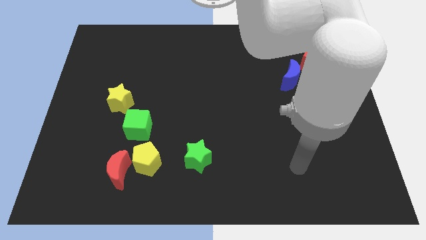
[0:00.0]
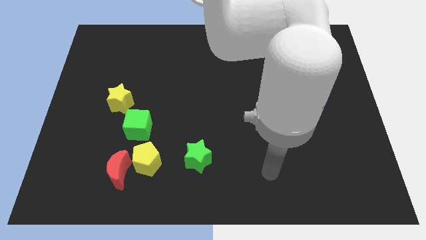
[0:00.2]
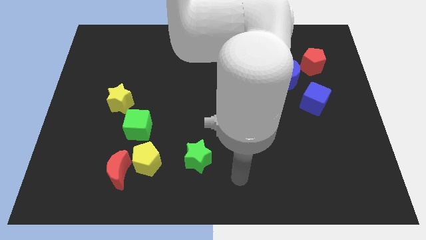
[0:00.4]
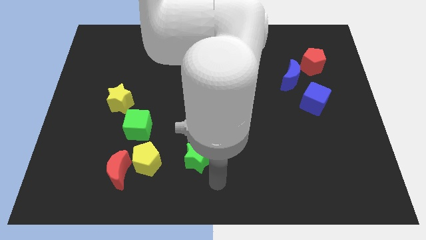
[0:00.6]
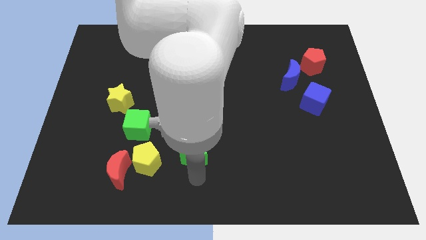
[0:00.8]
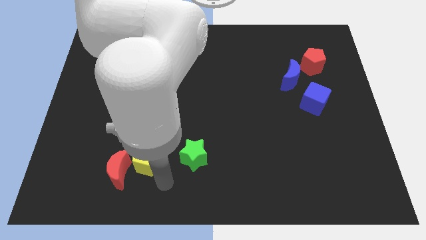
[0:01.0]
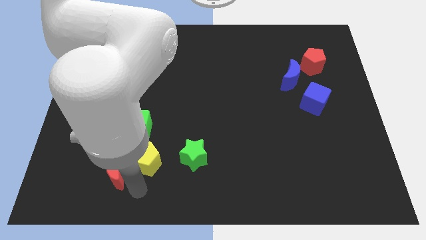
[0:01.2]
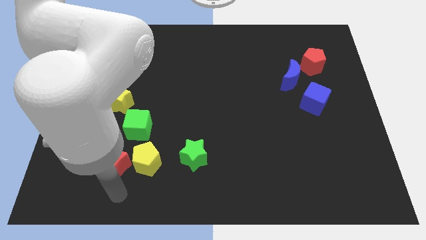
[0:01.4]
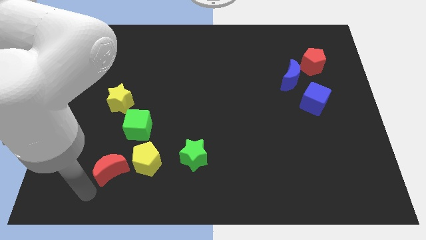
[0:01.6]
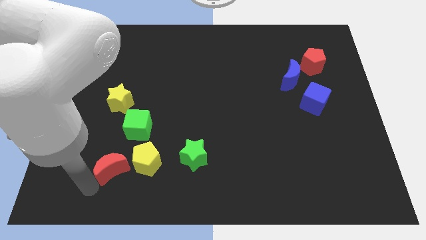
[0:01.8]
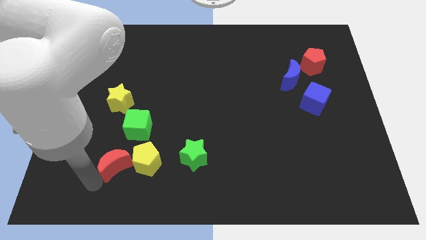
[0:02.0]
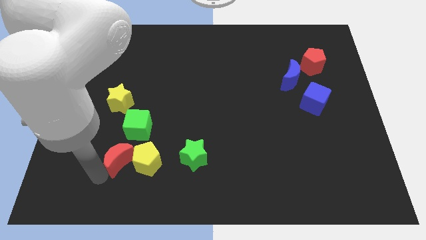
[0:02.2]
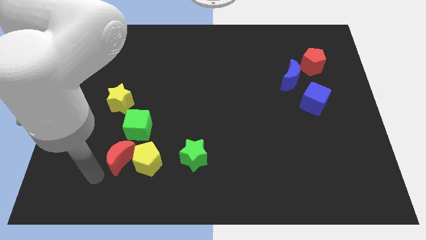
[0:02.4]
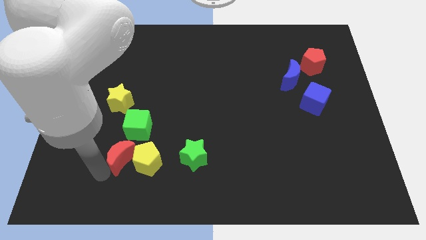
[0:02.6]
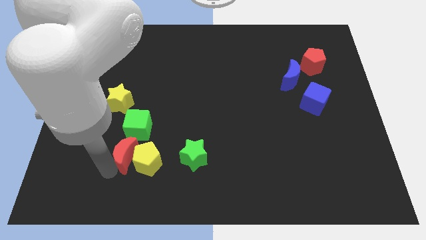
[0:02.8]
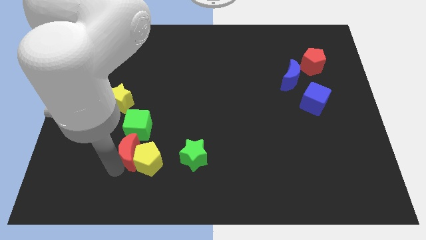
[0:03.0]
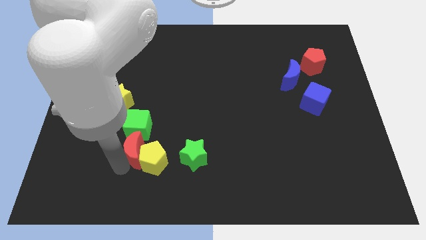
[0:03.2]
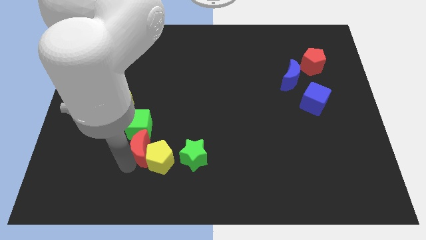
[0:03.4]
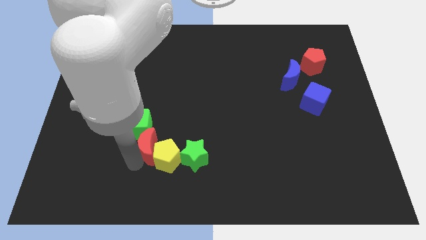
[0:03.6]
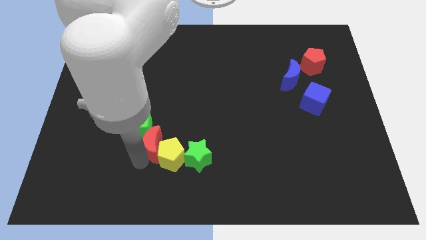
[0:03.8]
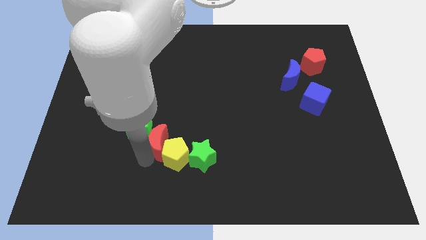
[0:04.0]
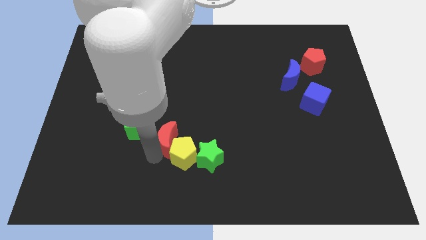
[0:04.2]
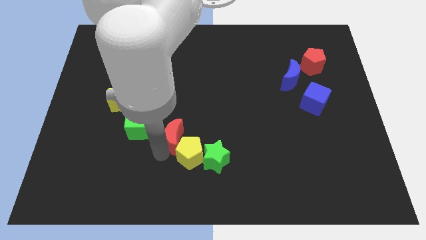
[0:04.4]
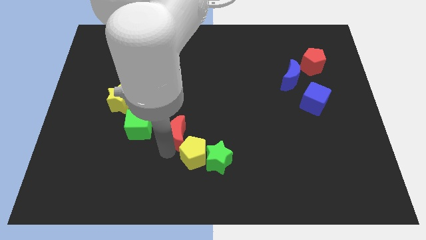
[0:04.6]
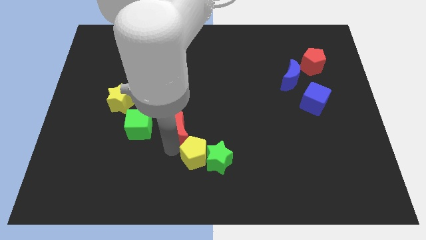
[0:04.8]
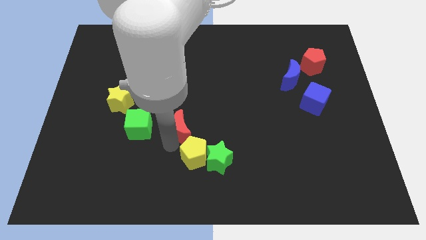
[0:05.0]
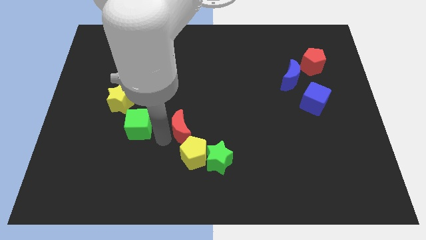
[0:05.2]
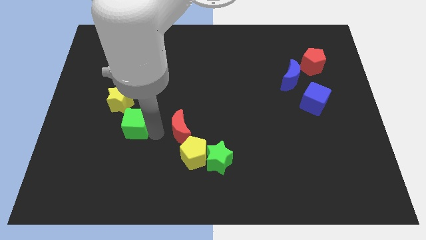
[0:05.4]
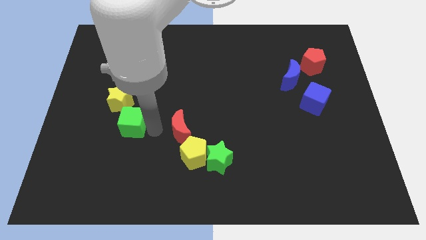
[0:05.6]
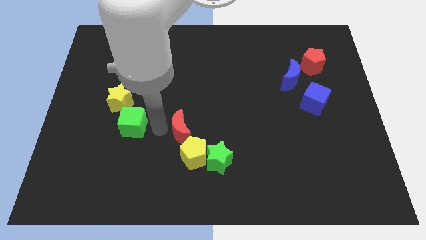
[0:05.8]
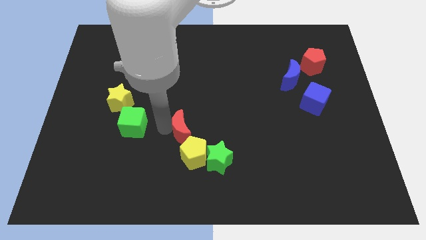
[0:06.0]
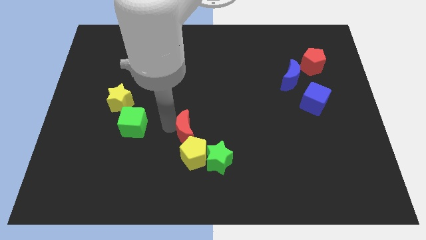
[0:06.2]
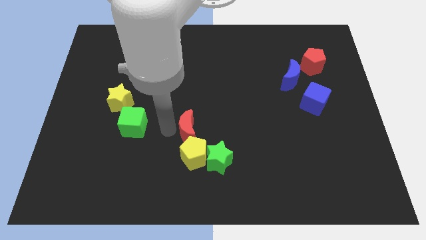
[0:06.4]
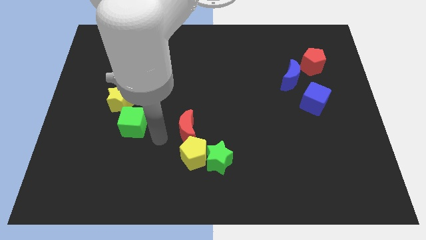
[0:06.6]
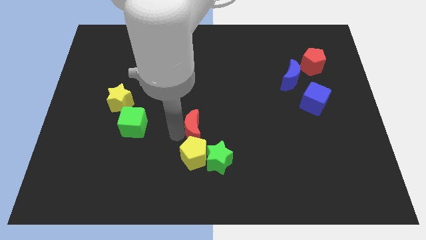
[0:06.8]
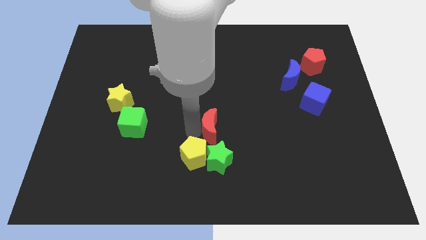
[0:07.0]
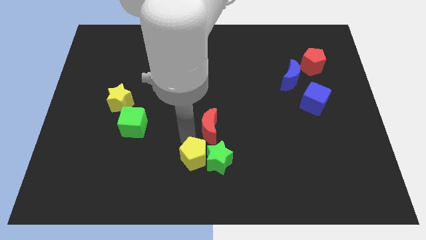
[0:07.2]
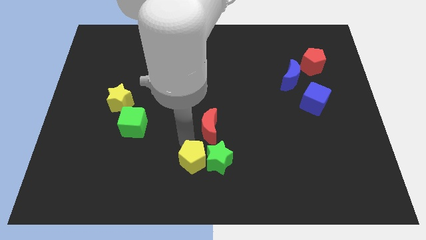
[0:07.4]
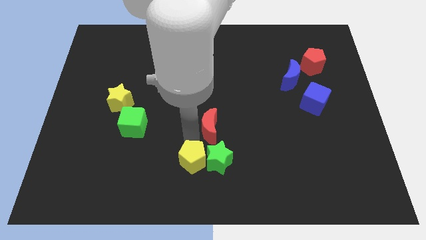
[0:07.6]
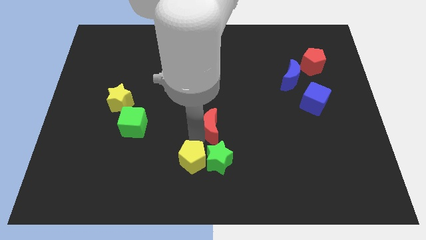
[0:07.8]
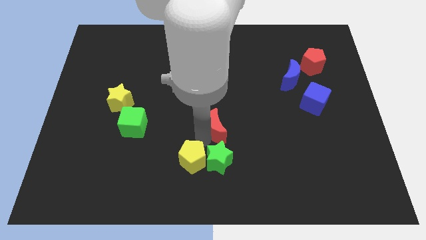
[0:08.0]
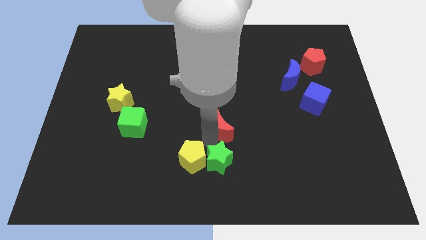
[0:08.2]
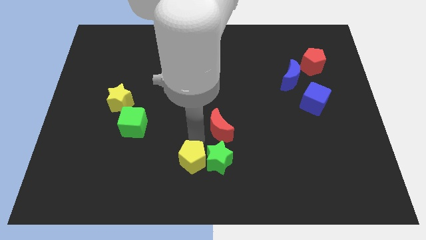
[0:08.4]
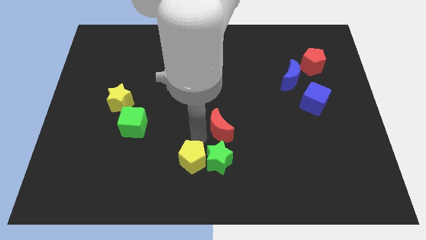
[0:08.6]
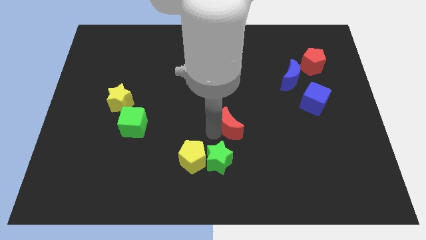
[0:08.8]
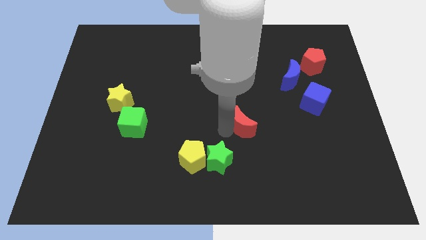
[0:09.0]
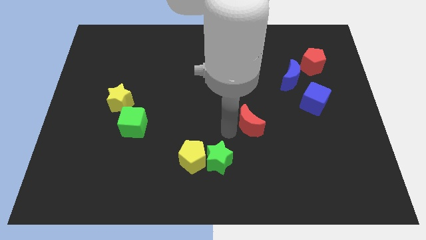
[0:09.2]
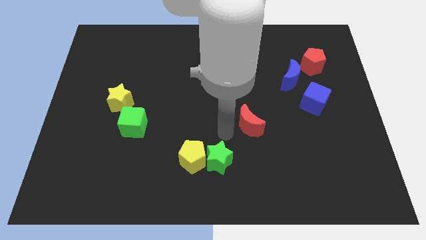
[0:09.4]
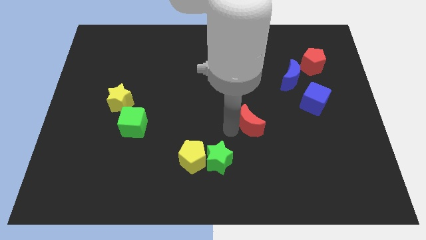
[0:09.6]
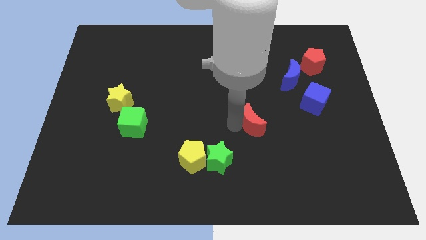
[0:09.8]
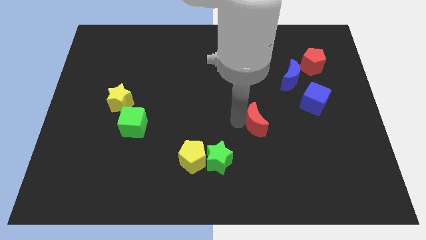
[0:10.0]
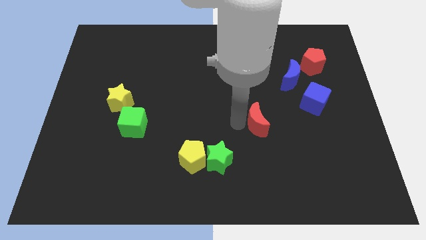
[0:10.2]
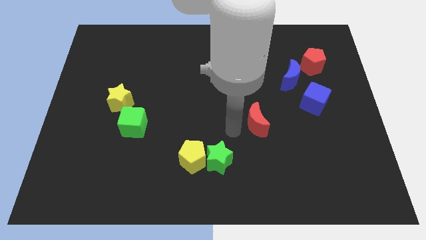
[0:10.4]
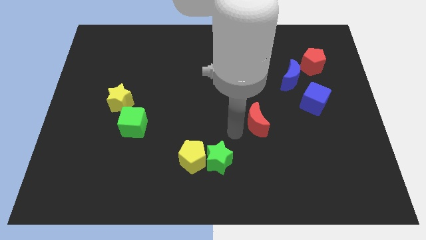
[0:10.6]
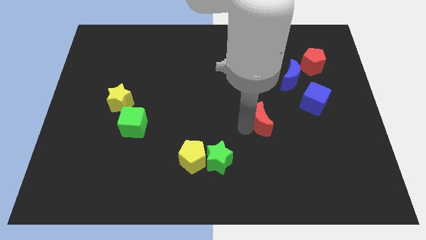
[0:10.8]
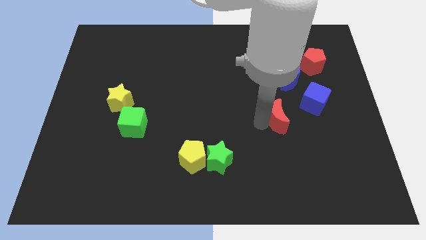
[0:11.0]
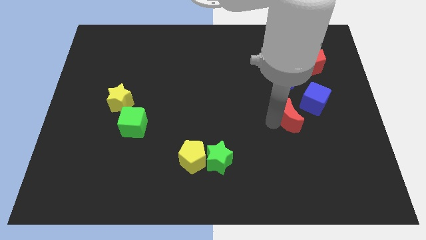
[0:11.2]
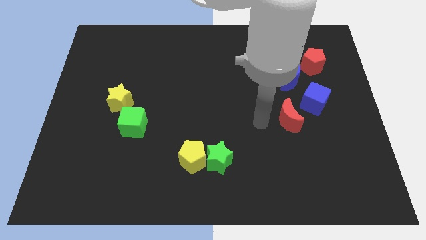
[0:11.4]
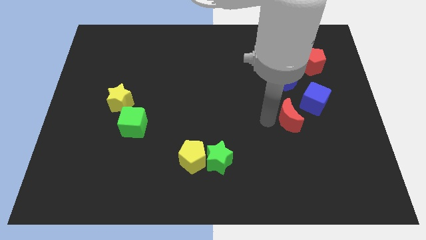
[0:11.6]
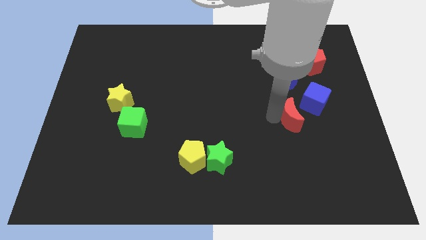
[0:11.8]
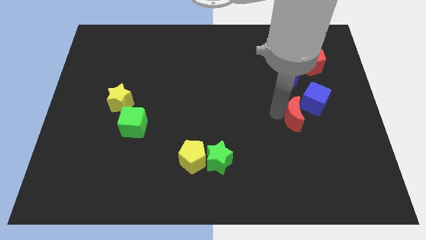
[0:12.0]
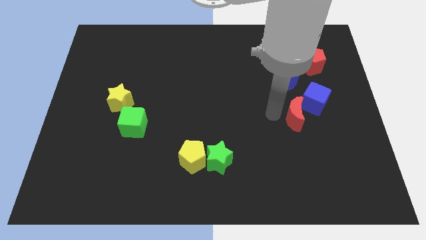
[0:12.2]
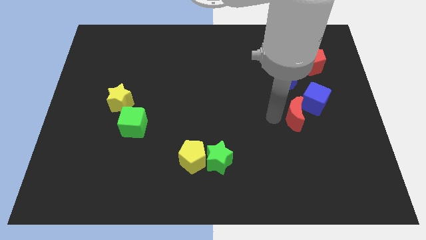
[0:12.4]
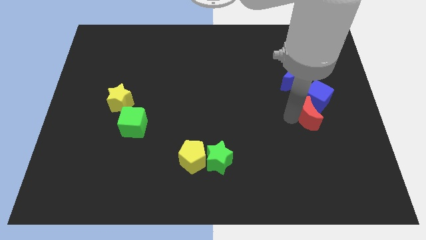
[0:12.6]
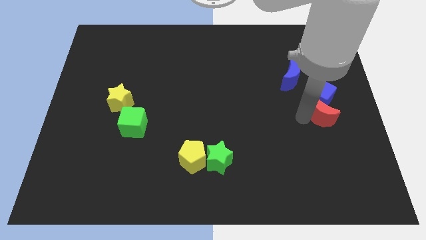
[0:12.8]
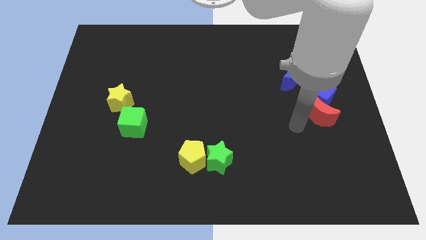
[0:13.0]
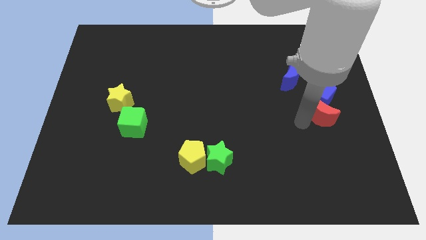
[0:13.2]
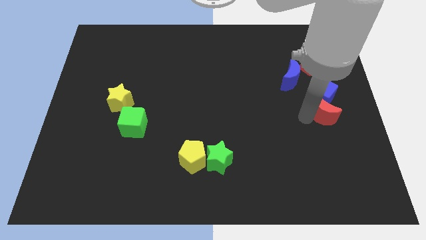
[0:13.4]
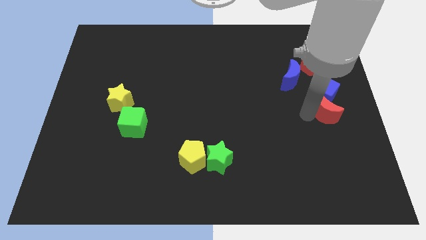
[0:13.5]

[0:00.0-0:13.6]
slide the red moon to the right side
